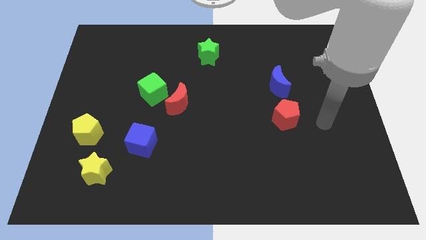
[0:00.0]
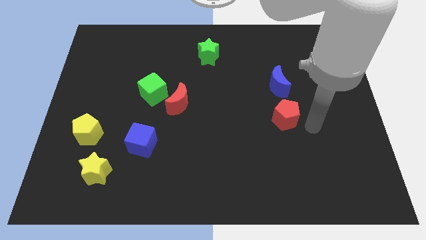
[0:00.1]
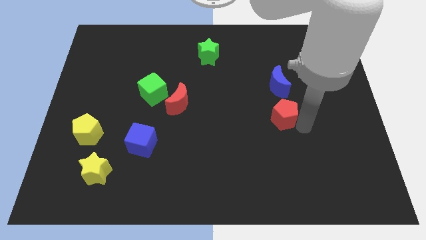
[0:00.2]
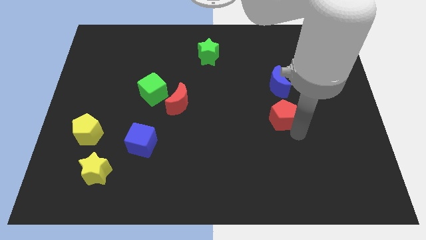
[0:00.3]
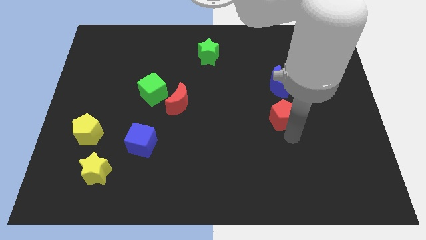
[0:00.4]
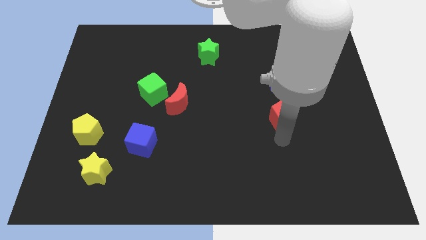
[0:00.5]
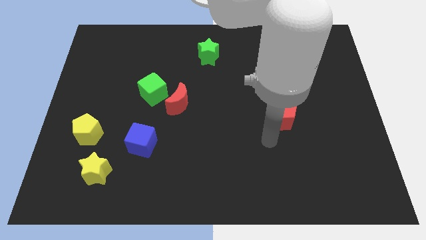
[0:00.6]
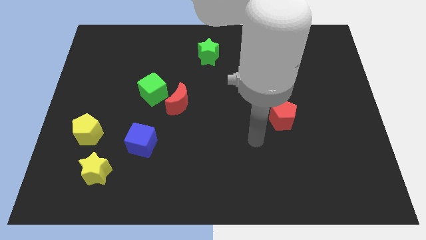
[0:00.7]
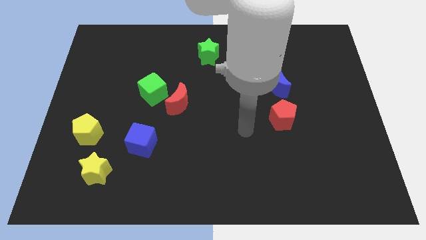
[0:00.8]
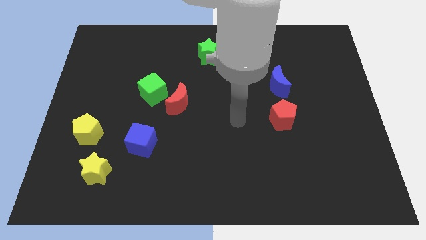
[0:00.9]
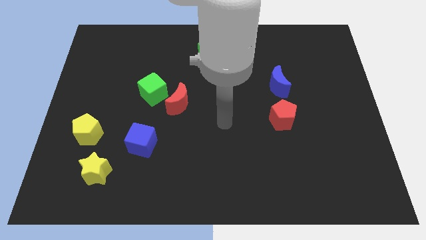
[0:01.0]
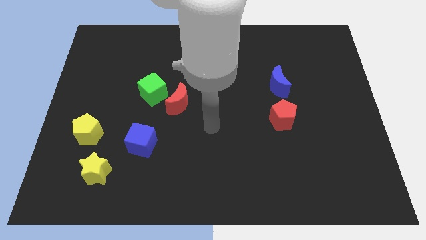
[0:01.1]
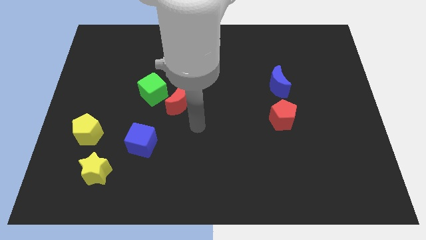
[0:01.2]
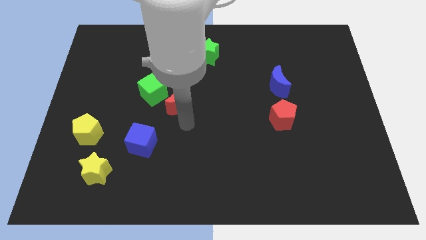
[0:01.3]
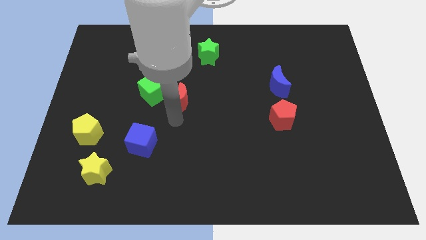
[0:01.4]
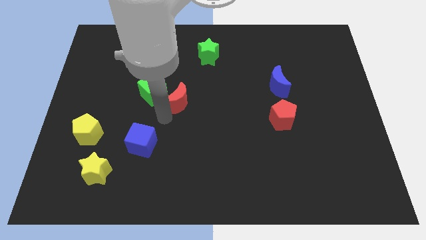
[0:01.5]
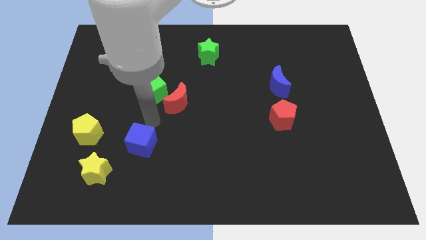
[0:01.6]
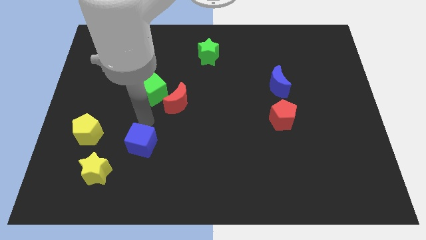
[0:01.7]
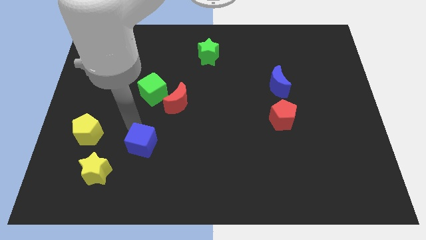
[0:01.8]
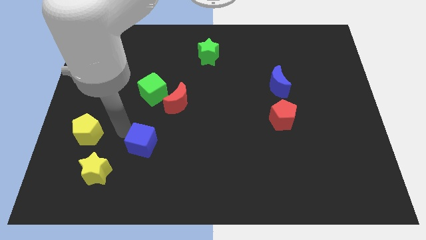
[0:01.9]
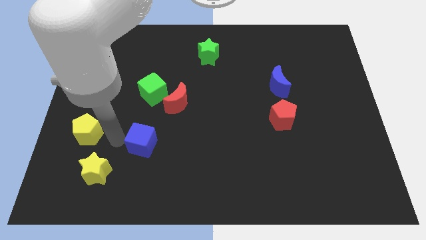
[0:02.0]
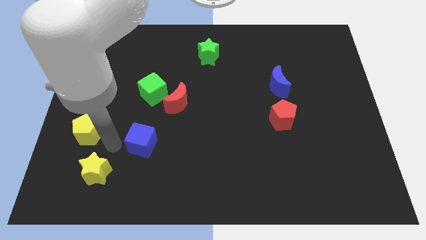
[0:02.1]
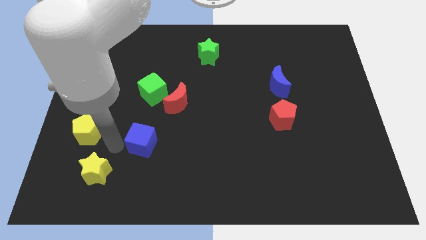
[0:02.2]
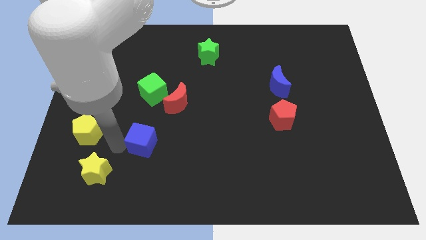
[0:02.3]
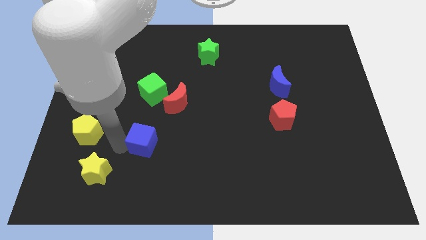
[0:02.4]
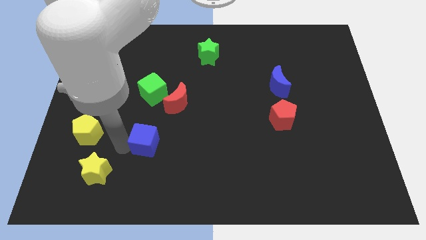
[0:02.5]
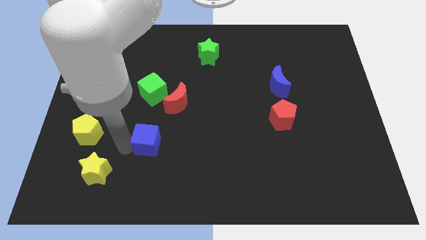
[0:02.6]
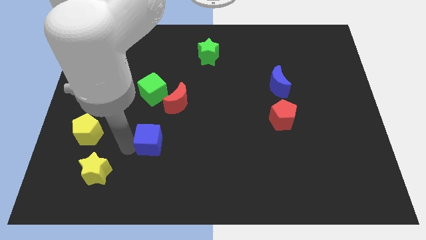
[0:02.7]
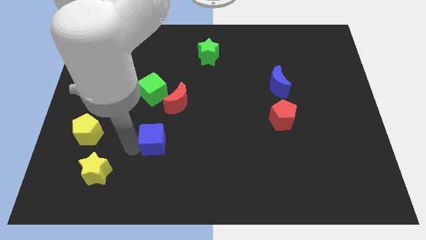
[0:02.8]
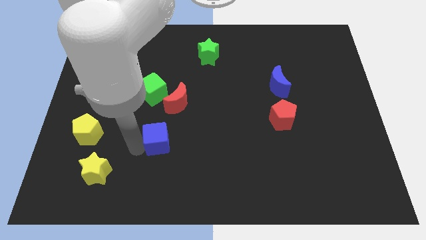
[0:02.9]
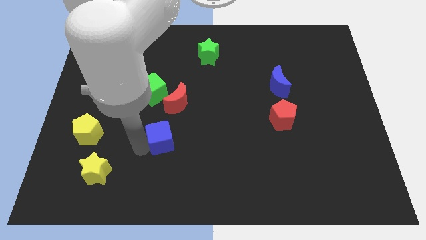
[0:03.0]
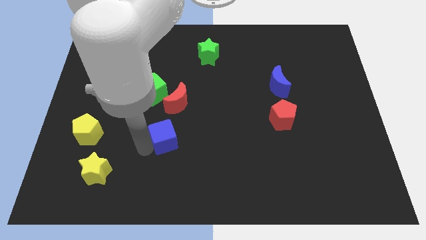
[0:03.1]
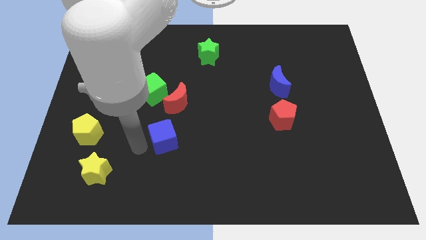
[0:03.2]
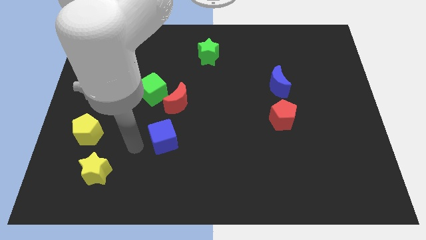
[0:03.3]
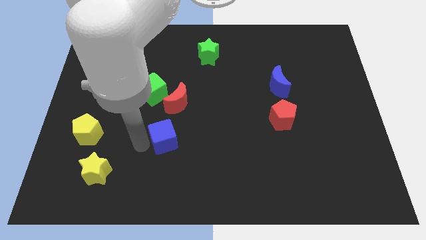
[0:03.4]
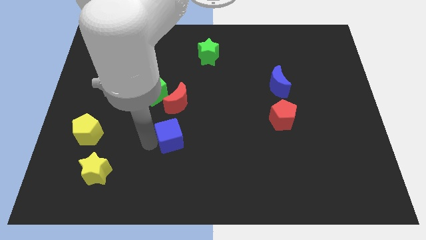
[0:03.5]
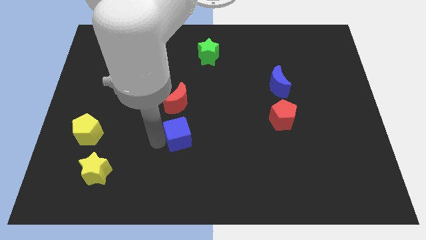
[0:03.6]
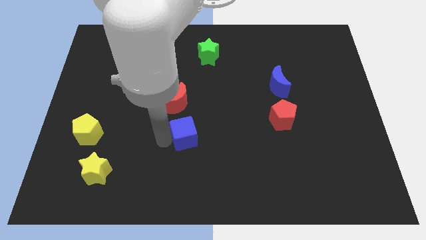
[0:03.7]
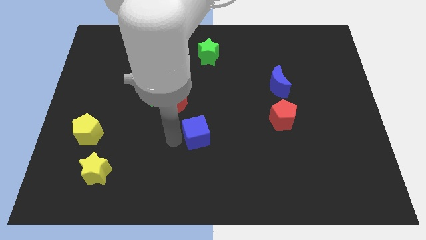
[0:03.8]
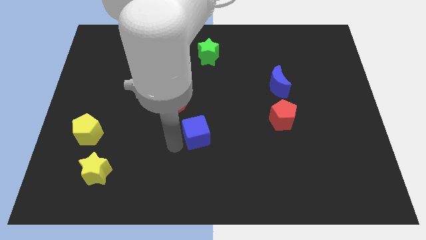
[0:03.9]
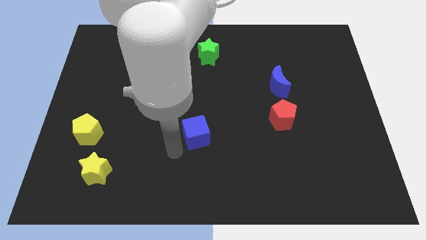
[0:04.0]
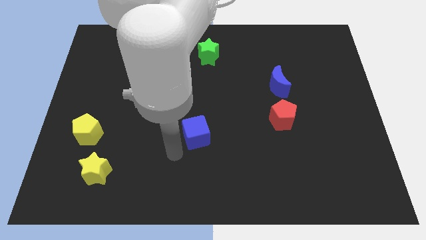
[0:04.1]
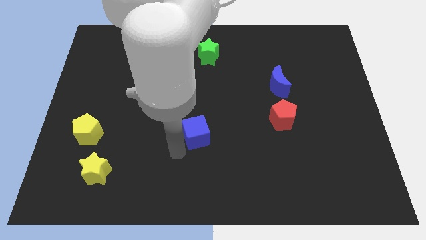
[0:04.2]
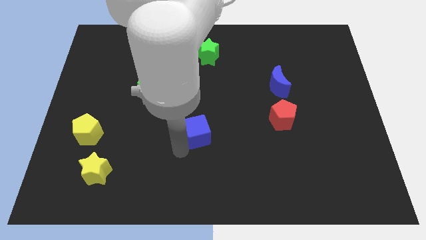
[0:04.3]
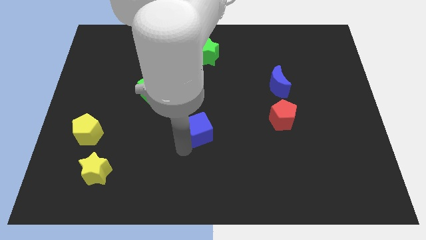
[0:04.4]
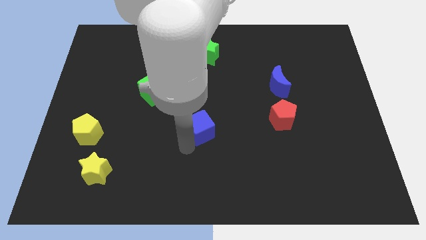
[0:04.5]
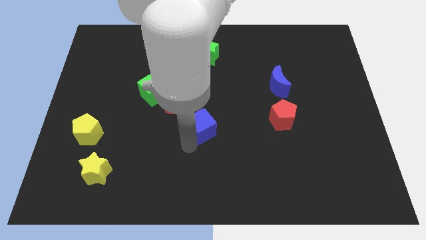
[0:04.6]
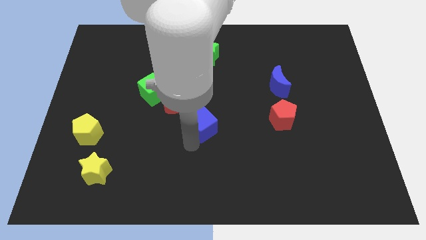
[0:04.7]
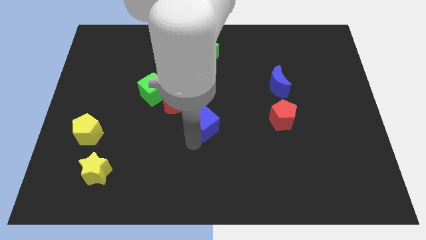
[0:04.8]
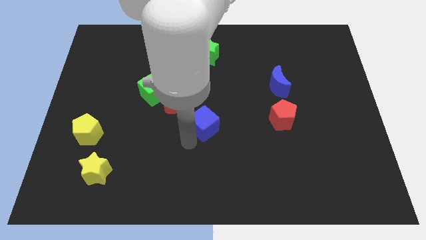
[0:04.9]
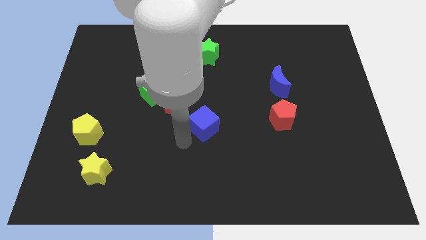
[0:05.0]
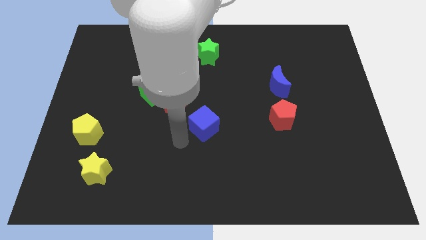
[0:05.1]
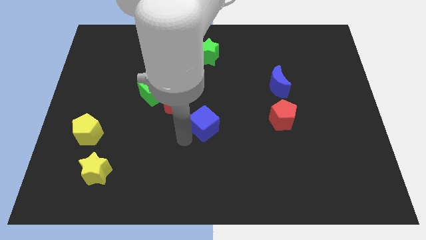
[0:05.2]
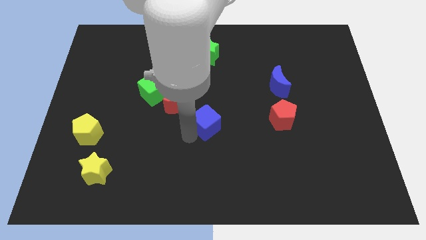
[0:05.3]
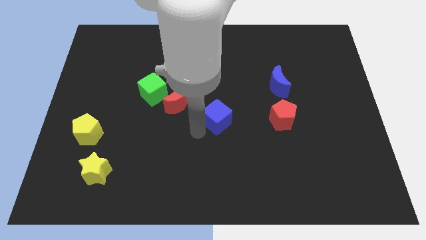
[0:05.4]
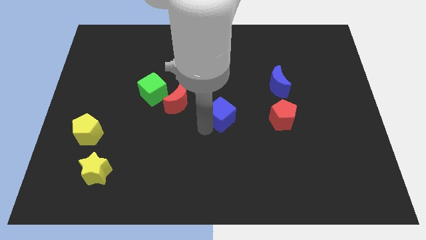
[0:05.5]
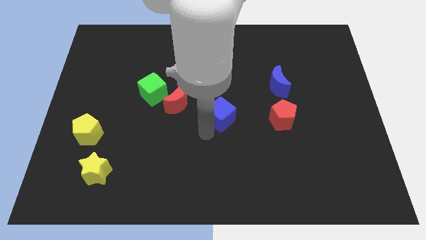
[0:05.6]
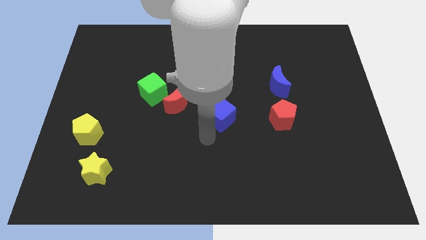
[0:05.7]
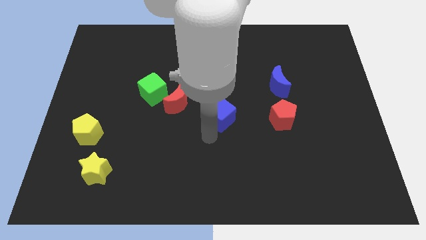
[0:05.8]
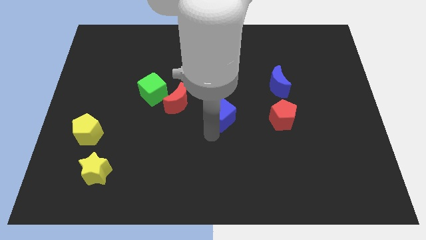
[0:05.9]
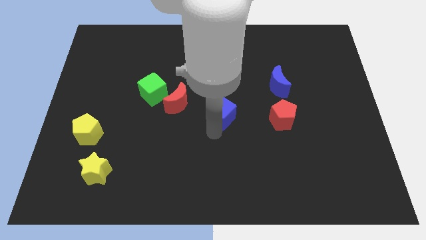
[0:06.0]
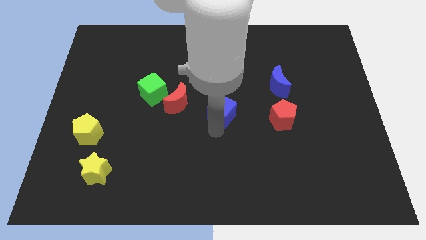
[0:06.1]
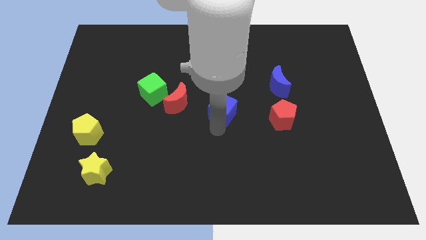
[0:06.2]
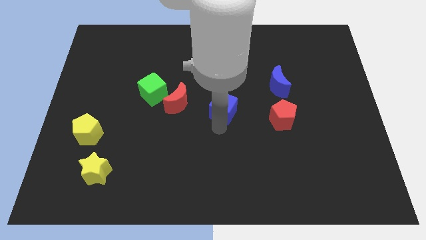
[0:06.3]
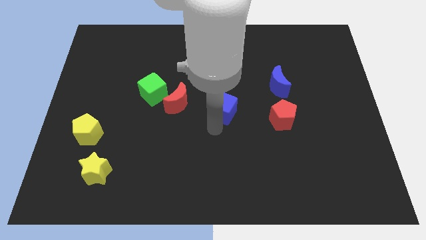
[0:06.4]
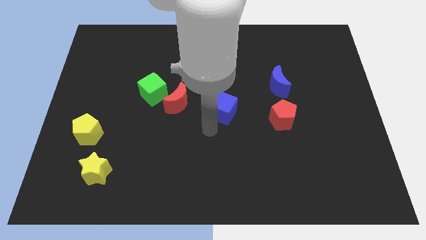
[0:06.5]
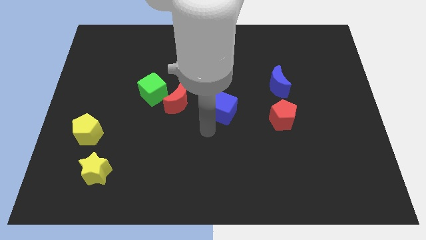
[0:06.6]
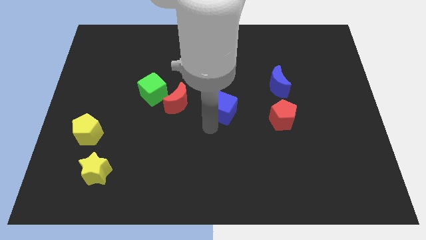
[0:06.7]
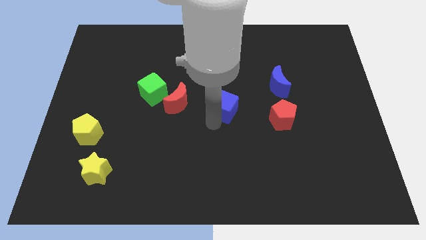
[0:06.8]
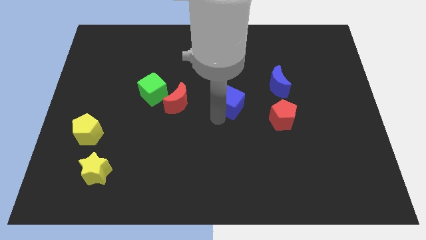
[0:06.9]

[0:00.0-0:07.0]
move the blue cube up and then to the right

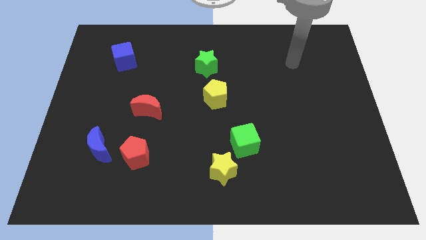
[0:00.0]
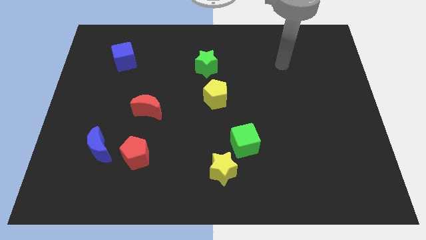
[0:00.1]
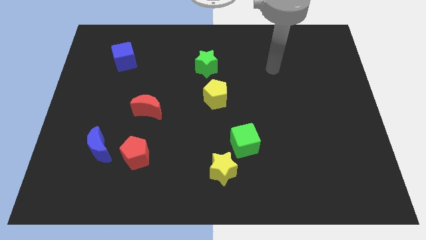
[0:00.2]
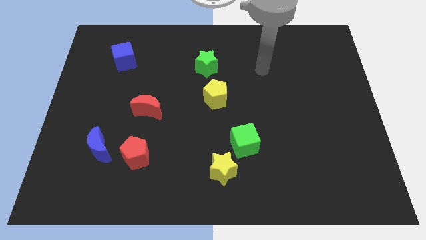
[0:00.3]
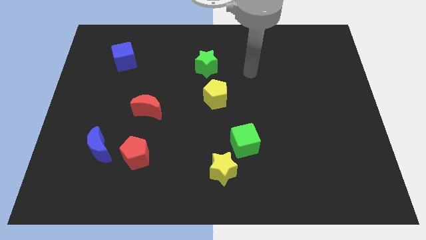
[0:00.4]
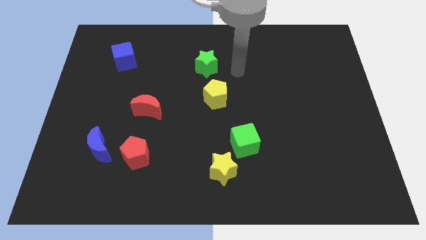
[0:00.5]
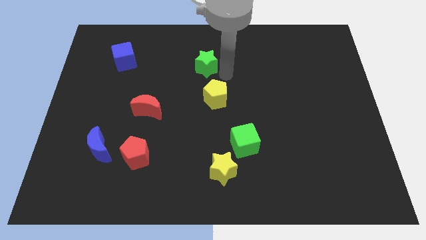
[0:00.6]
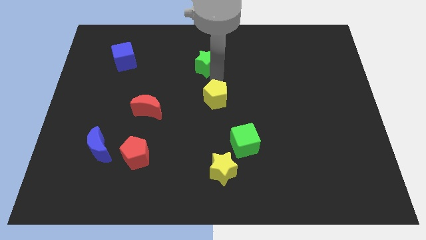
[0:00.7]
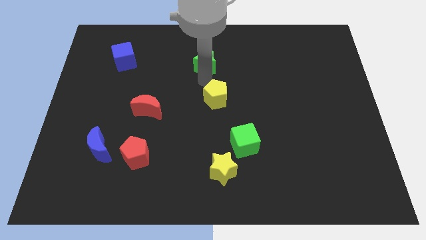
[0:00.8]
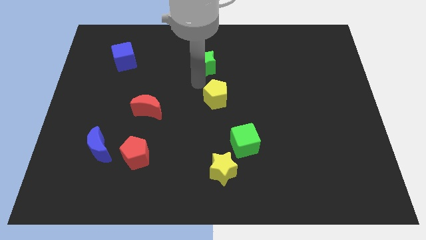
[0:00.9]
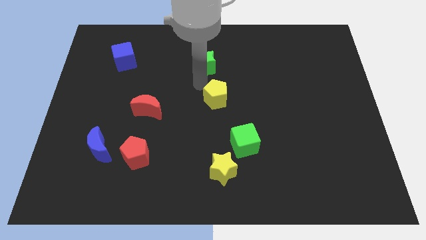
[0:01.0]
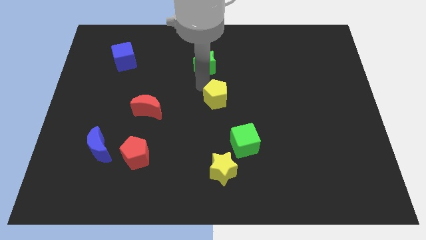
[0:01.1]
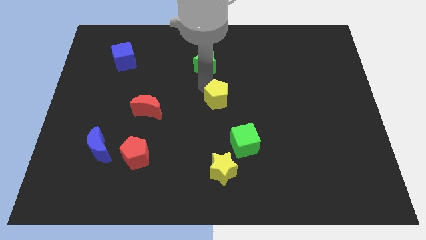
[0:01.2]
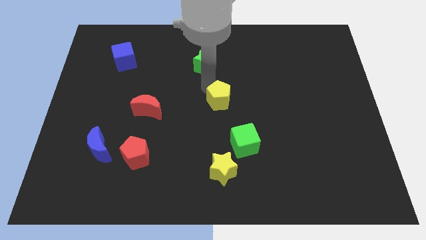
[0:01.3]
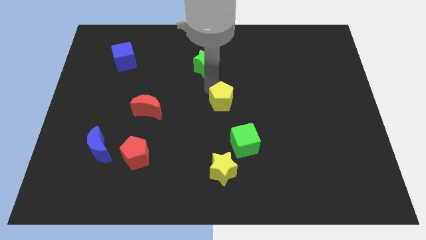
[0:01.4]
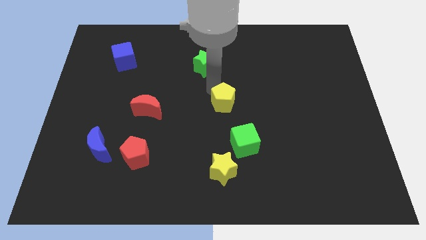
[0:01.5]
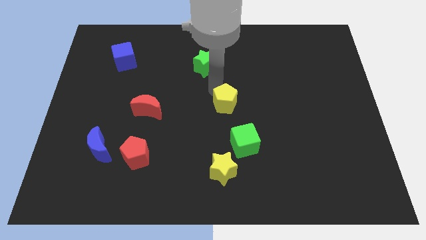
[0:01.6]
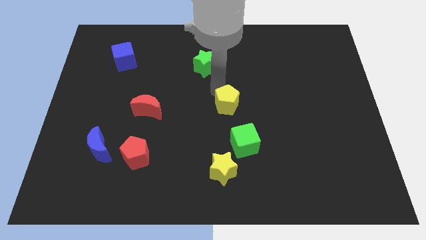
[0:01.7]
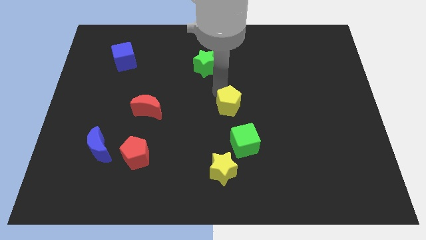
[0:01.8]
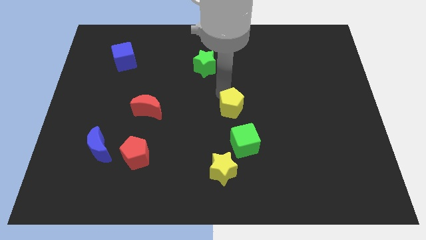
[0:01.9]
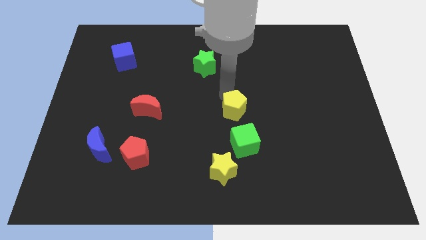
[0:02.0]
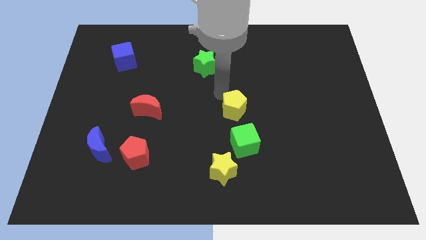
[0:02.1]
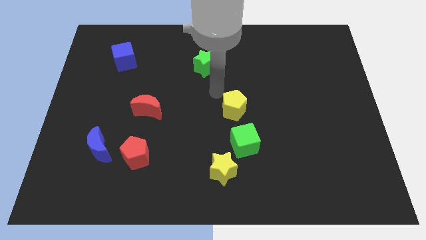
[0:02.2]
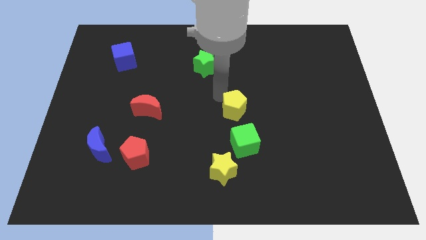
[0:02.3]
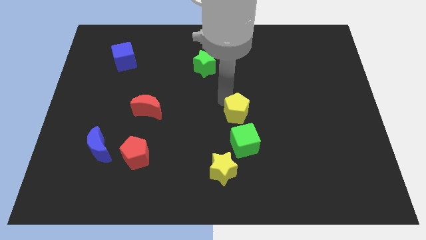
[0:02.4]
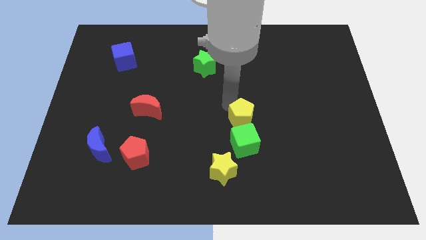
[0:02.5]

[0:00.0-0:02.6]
push the yellow pentagon a bit diagonally downwards and to the right
